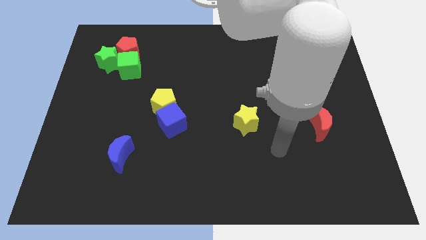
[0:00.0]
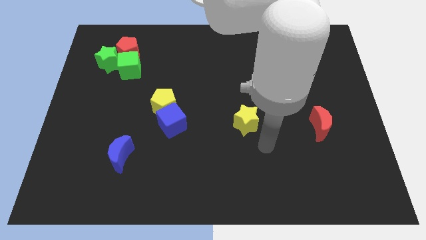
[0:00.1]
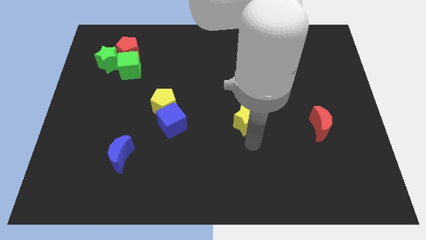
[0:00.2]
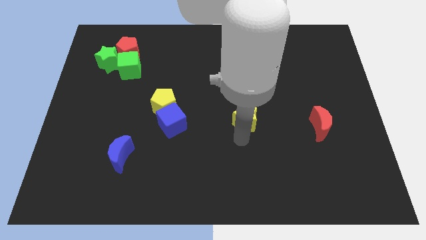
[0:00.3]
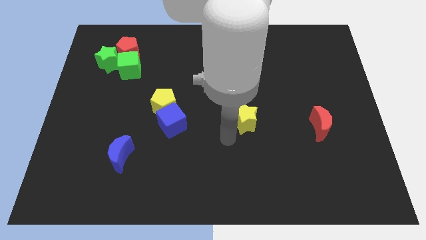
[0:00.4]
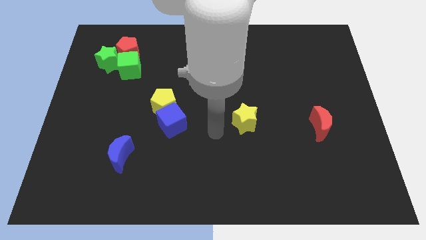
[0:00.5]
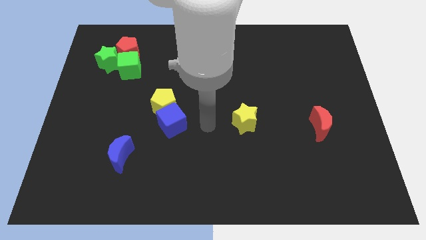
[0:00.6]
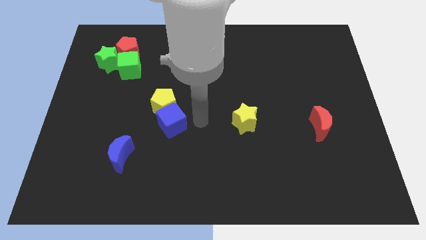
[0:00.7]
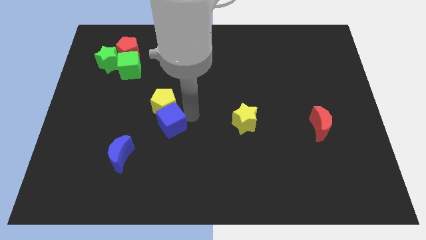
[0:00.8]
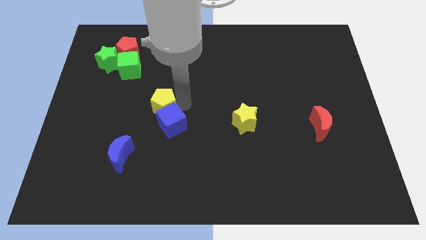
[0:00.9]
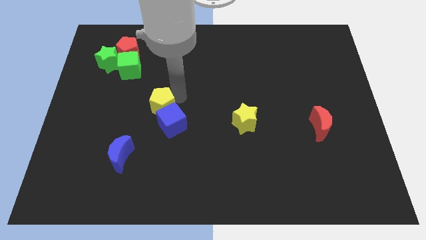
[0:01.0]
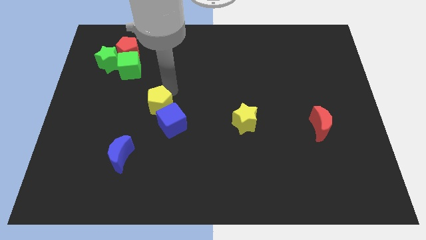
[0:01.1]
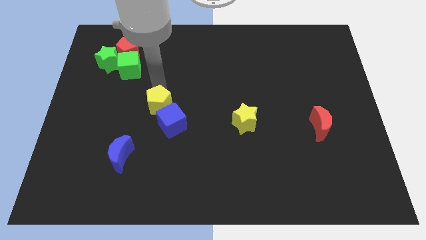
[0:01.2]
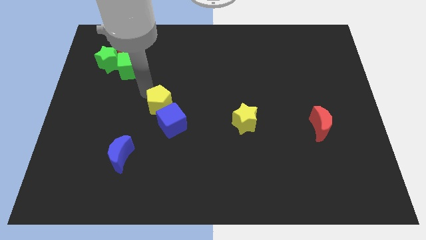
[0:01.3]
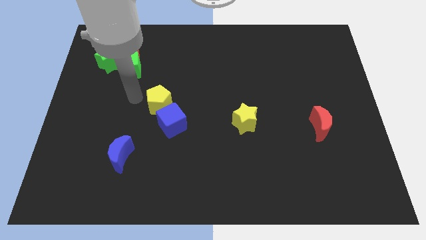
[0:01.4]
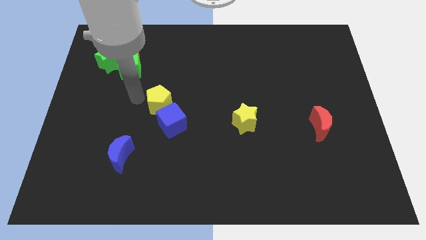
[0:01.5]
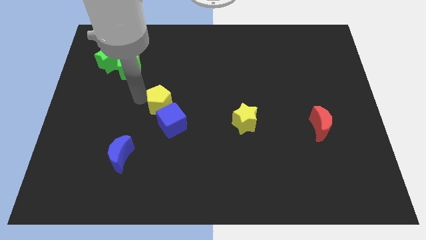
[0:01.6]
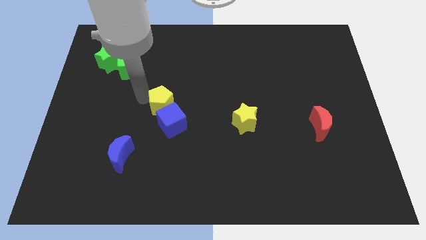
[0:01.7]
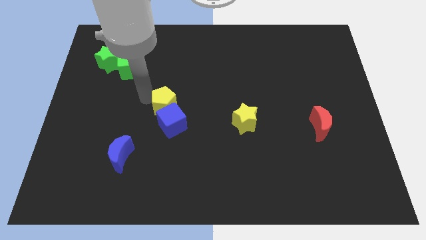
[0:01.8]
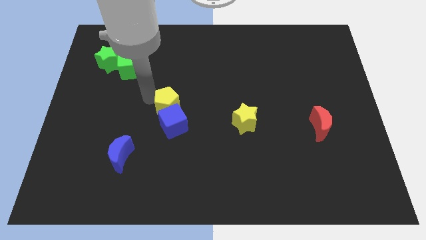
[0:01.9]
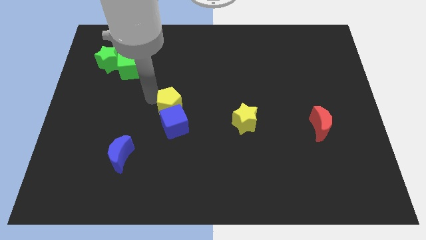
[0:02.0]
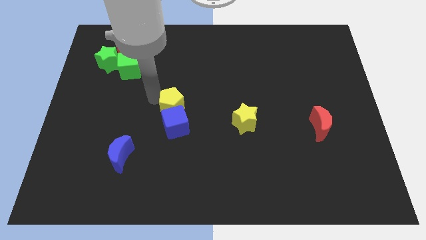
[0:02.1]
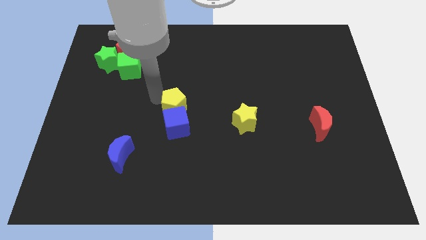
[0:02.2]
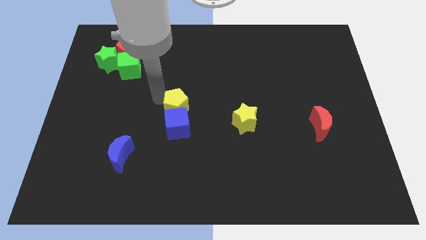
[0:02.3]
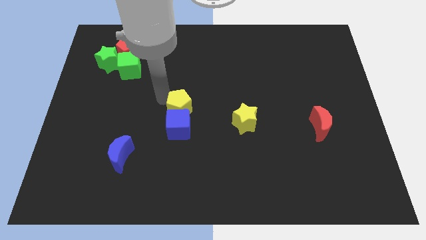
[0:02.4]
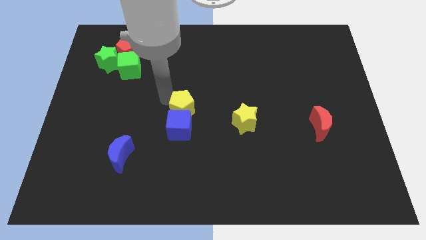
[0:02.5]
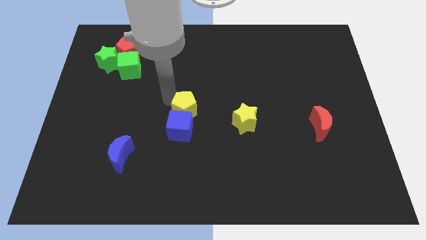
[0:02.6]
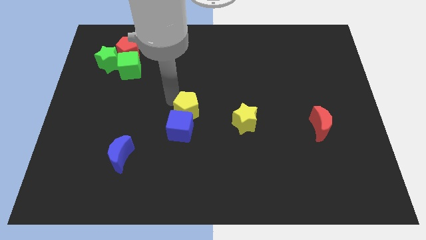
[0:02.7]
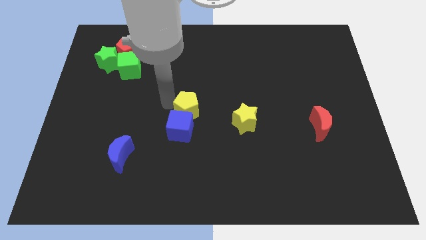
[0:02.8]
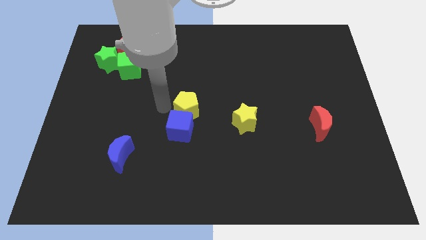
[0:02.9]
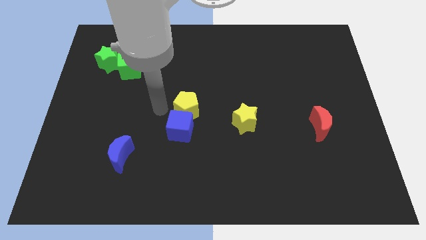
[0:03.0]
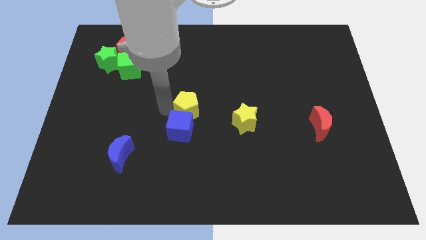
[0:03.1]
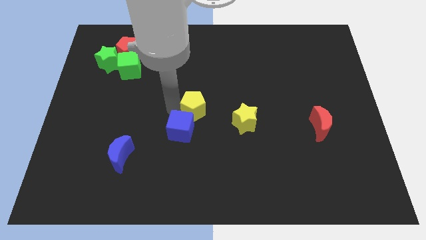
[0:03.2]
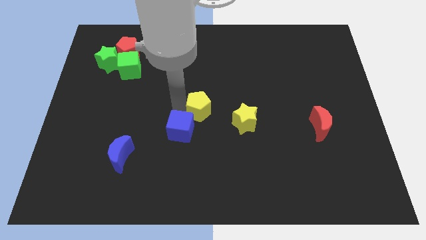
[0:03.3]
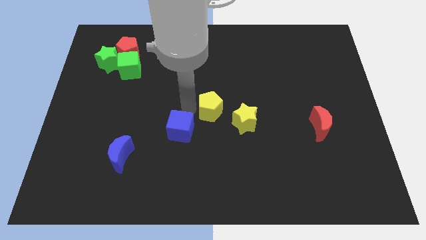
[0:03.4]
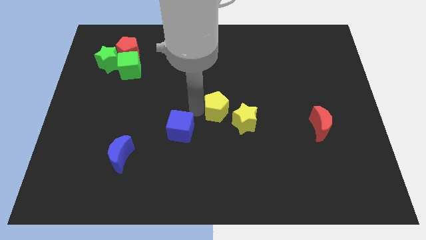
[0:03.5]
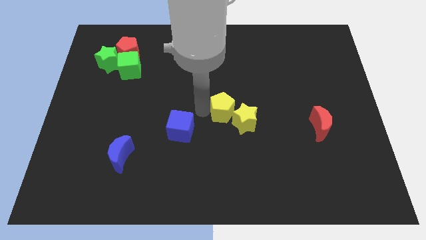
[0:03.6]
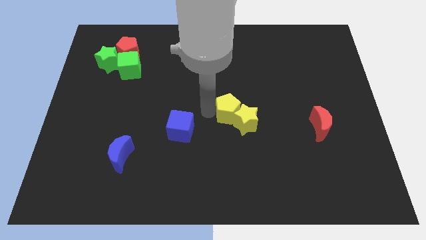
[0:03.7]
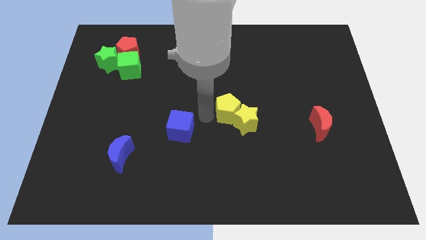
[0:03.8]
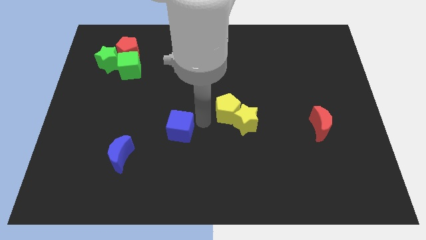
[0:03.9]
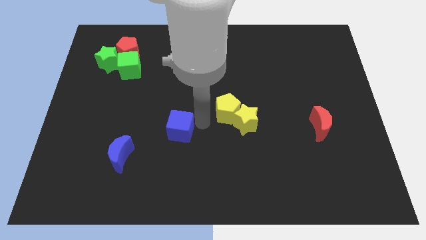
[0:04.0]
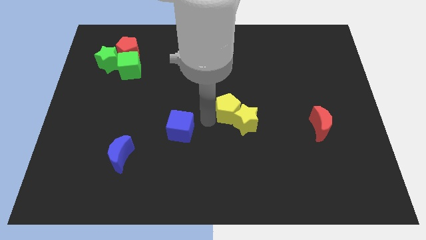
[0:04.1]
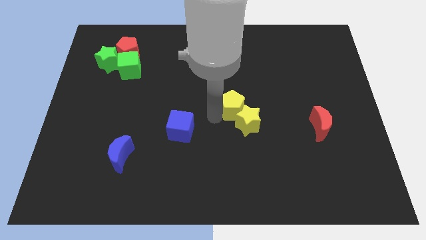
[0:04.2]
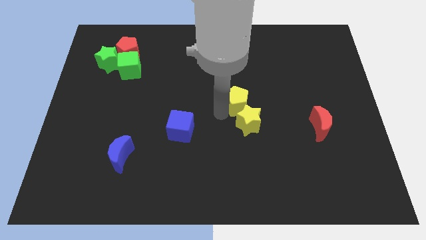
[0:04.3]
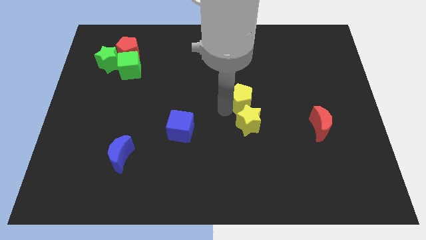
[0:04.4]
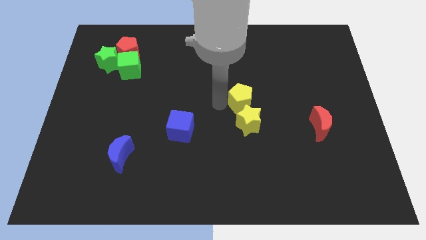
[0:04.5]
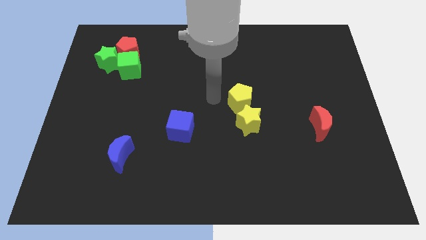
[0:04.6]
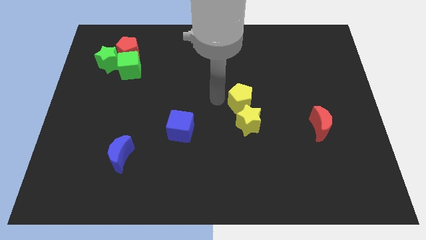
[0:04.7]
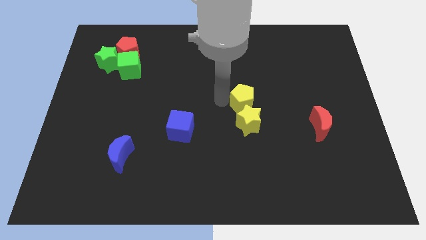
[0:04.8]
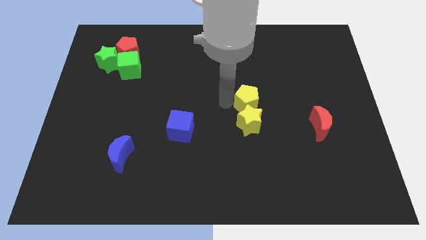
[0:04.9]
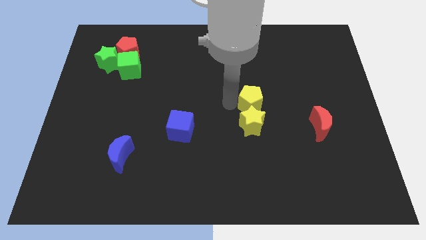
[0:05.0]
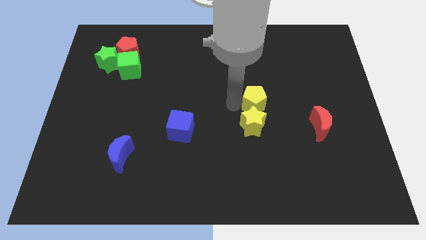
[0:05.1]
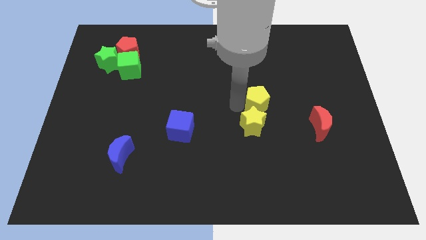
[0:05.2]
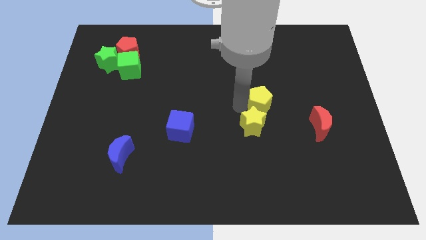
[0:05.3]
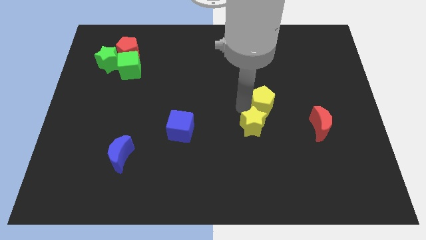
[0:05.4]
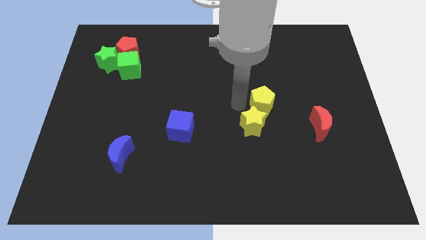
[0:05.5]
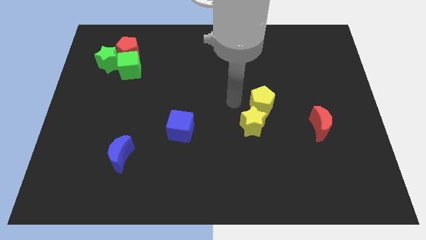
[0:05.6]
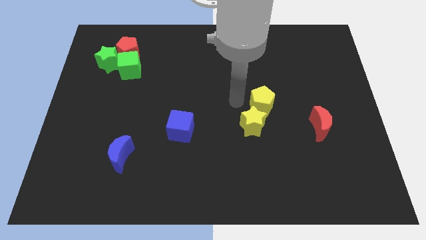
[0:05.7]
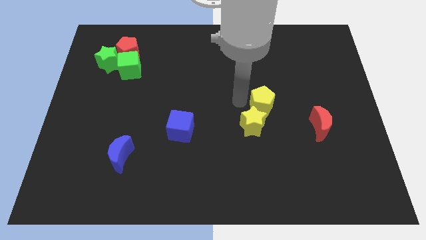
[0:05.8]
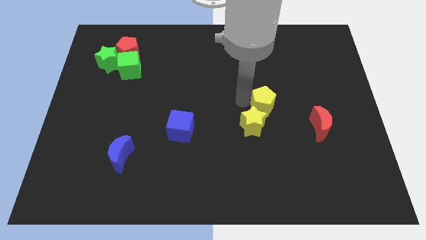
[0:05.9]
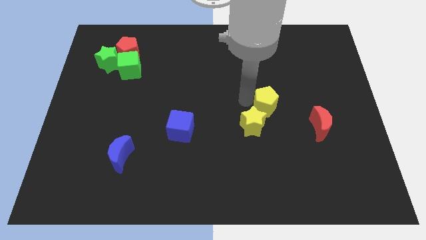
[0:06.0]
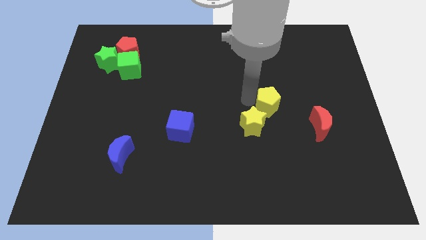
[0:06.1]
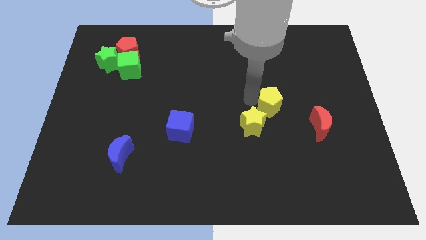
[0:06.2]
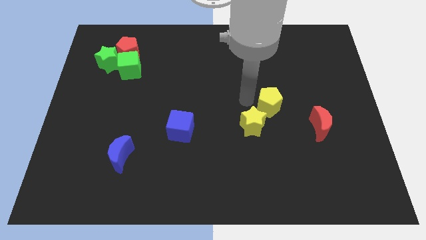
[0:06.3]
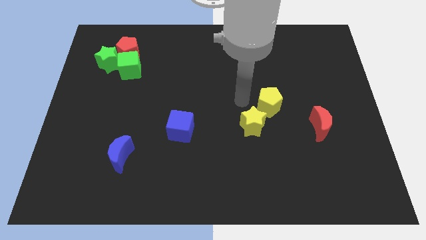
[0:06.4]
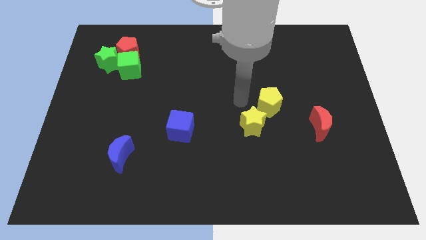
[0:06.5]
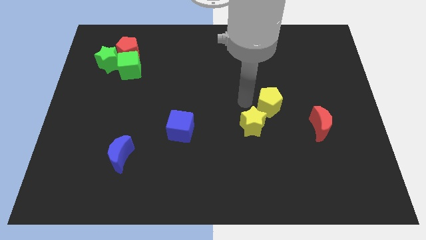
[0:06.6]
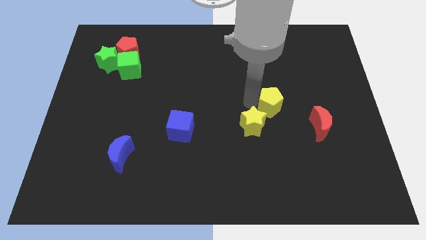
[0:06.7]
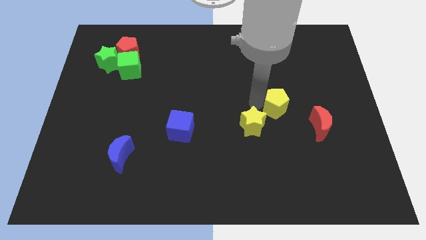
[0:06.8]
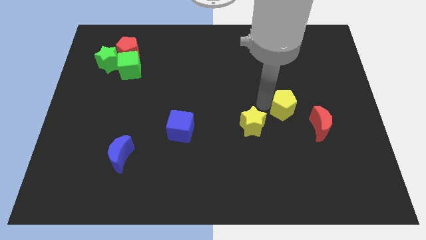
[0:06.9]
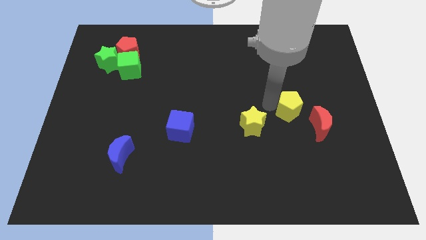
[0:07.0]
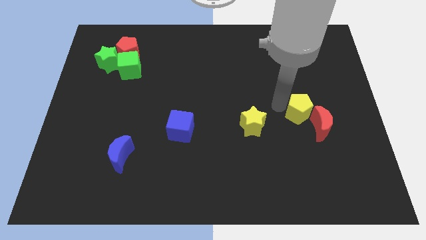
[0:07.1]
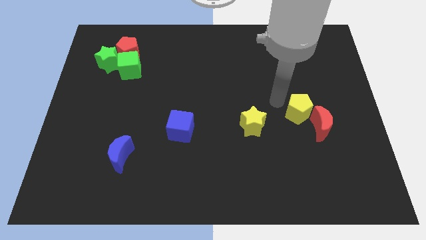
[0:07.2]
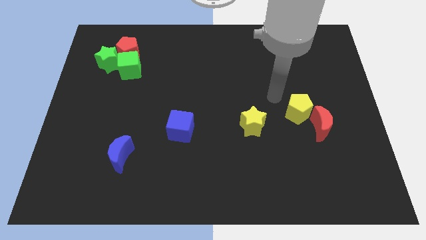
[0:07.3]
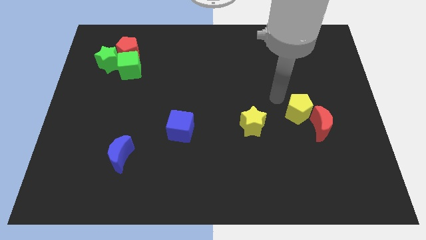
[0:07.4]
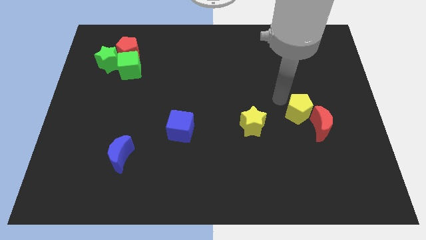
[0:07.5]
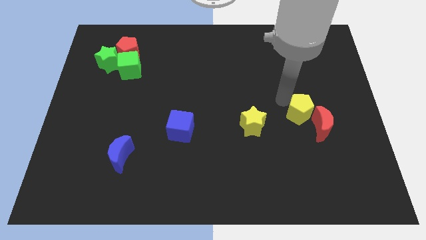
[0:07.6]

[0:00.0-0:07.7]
move the yellow pentagon to the red moon
